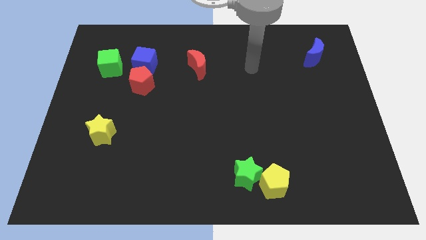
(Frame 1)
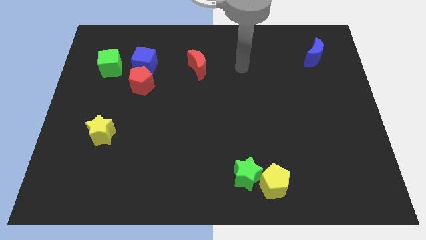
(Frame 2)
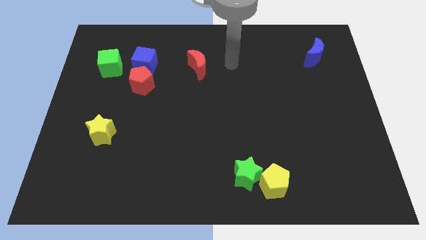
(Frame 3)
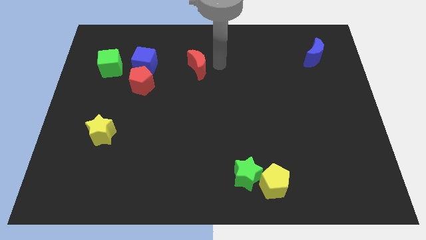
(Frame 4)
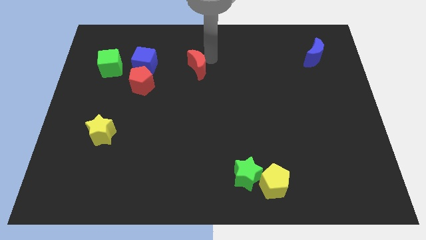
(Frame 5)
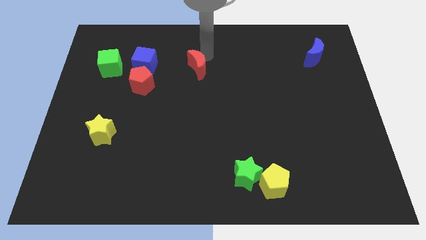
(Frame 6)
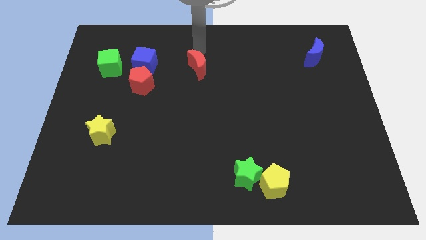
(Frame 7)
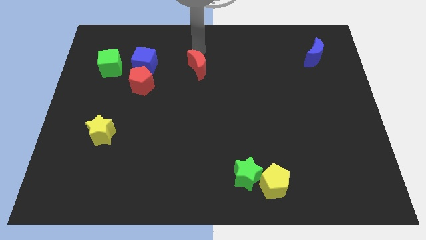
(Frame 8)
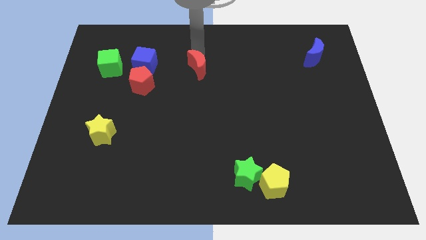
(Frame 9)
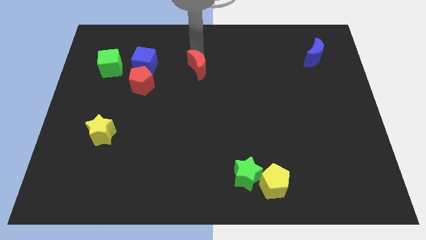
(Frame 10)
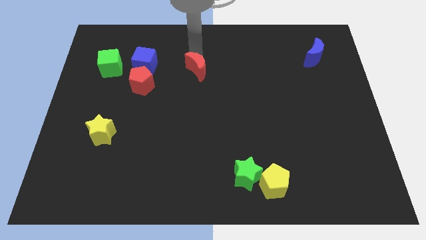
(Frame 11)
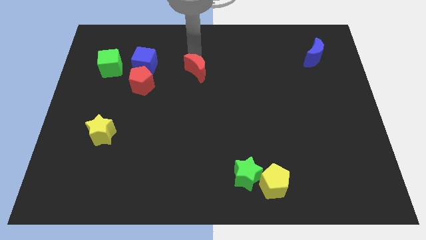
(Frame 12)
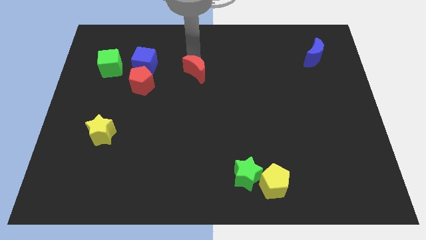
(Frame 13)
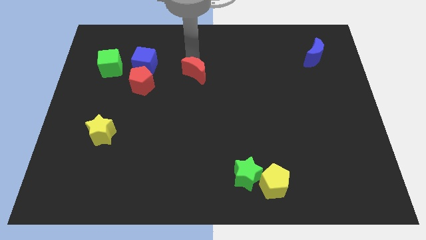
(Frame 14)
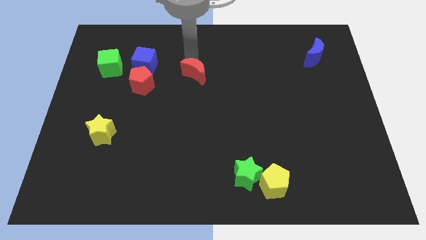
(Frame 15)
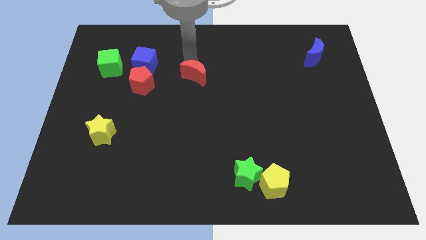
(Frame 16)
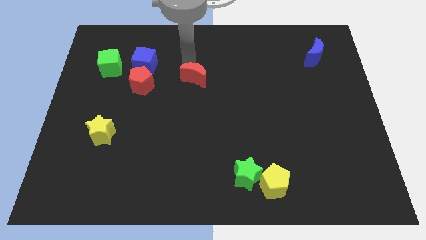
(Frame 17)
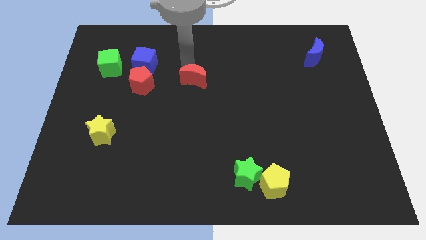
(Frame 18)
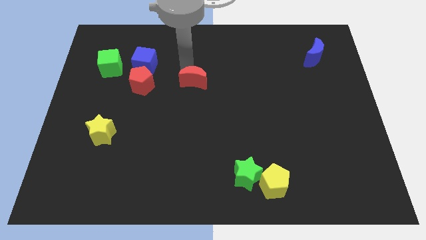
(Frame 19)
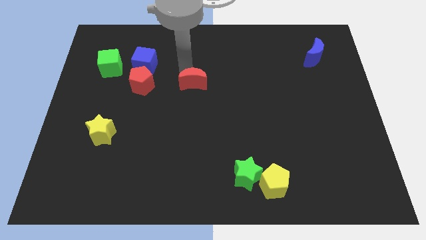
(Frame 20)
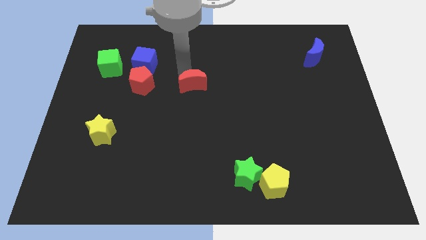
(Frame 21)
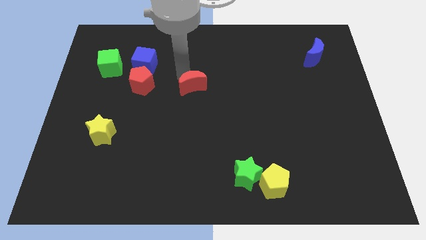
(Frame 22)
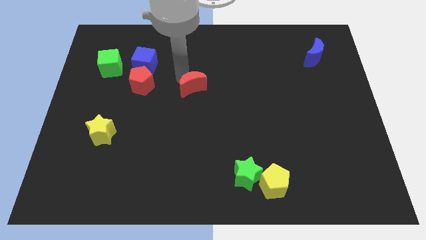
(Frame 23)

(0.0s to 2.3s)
push the red moon a bit downwards

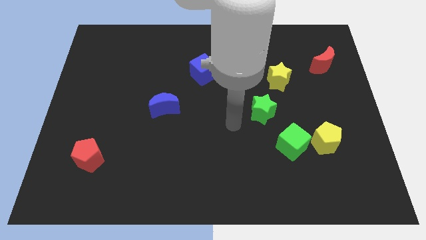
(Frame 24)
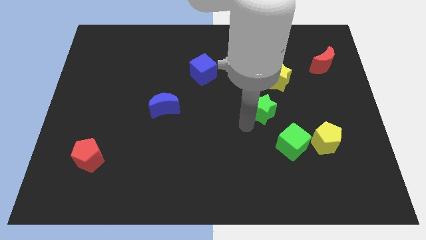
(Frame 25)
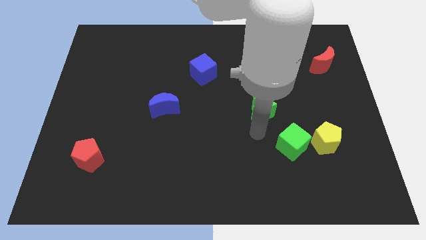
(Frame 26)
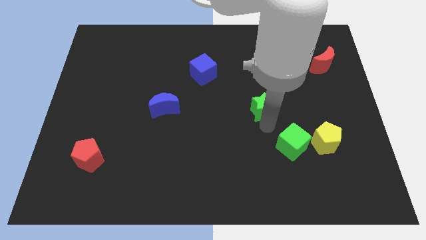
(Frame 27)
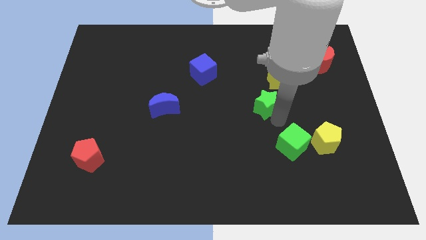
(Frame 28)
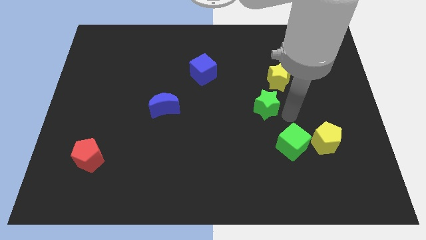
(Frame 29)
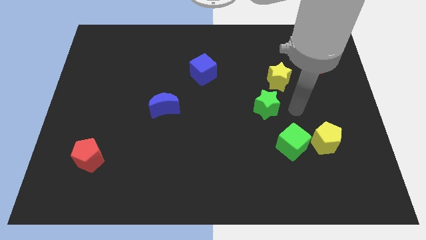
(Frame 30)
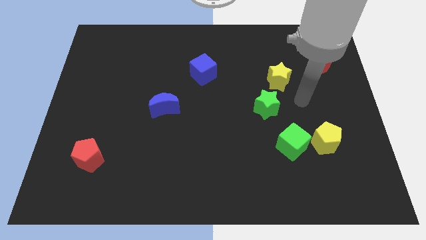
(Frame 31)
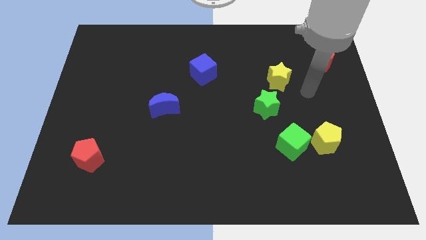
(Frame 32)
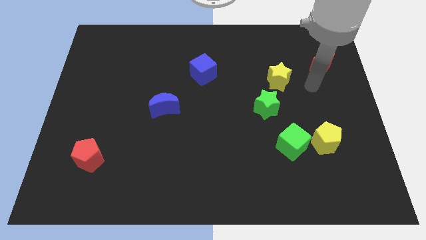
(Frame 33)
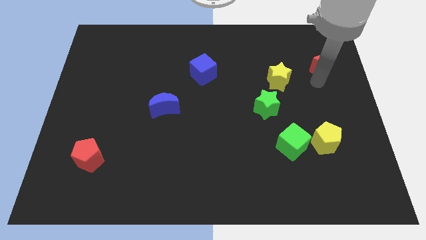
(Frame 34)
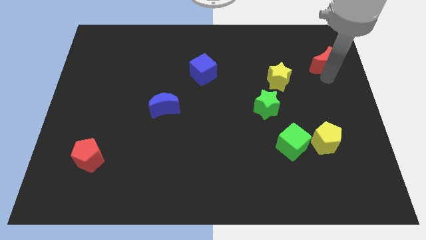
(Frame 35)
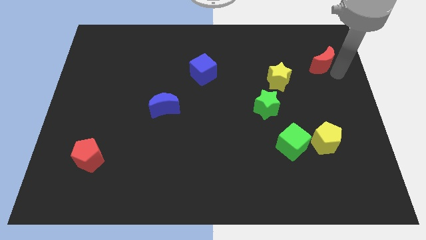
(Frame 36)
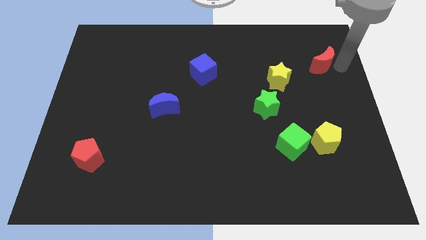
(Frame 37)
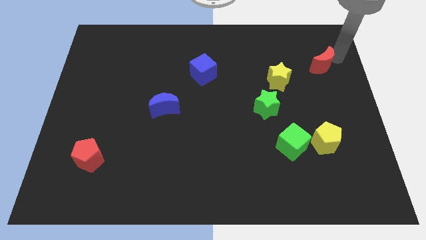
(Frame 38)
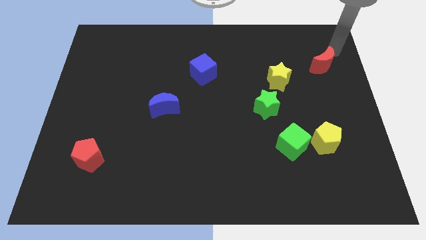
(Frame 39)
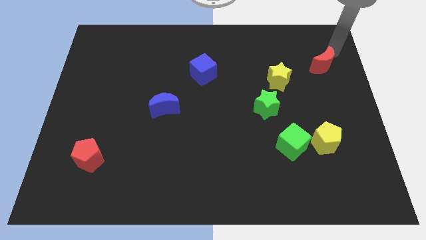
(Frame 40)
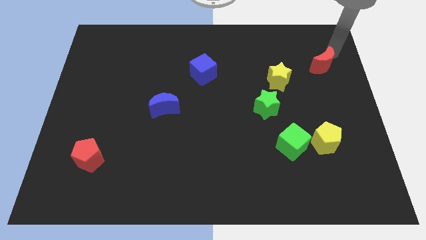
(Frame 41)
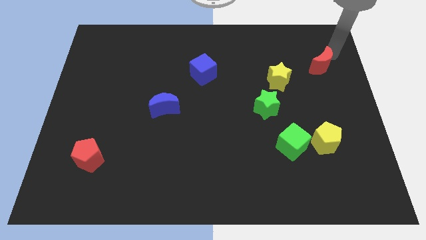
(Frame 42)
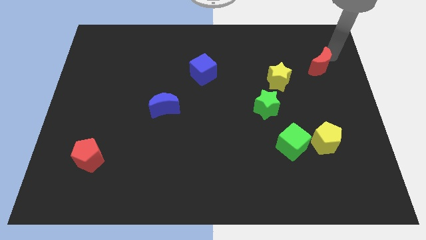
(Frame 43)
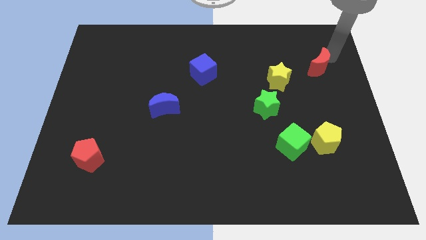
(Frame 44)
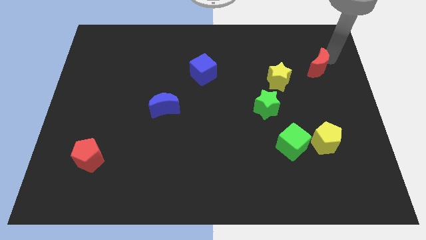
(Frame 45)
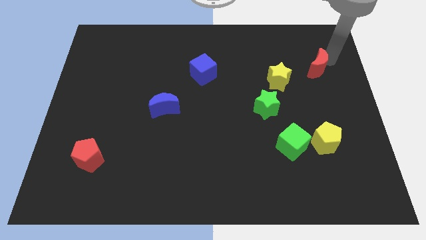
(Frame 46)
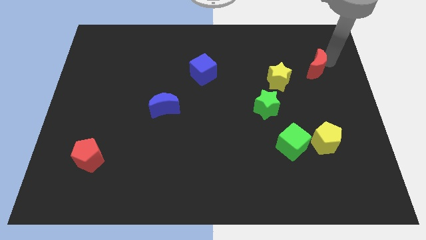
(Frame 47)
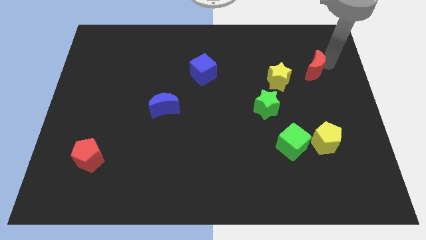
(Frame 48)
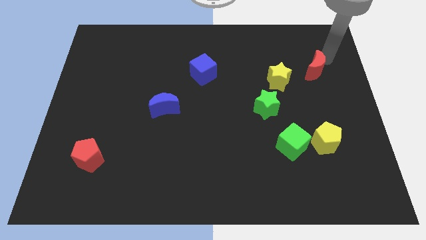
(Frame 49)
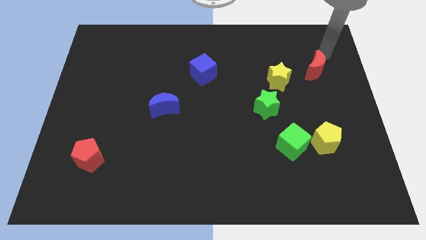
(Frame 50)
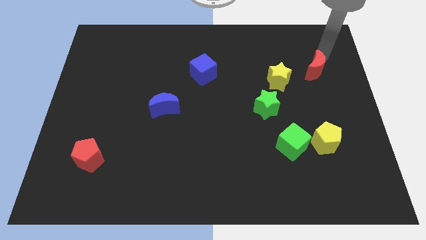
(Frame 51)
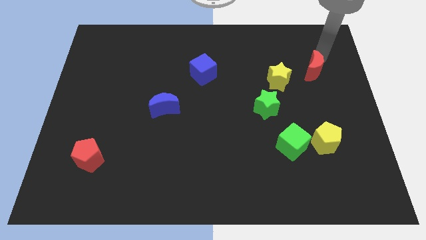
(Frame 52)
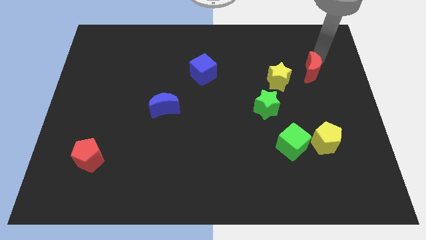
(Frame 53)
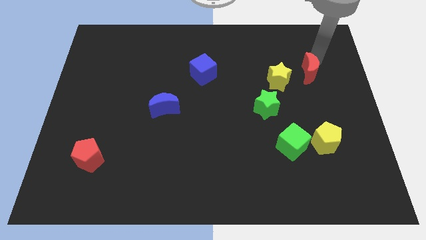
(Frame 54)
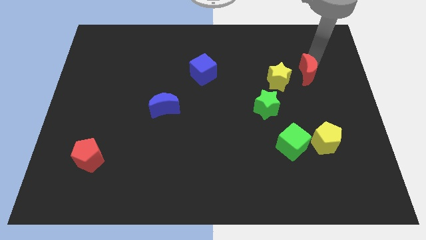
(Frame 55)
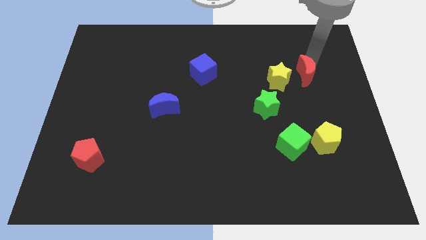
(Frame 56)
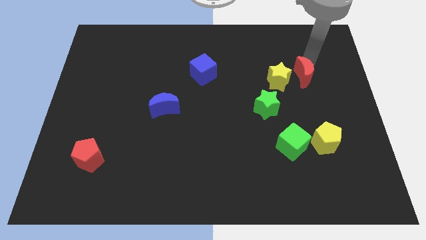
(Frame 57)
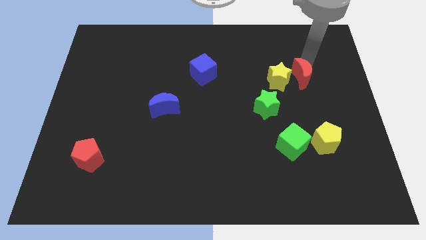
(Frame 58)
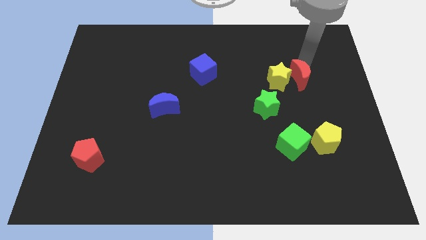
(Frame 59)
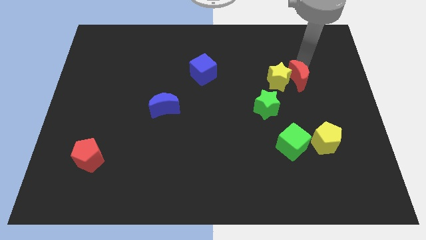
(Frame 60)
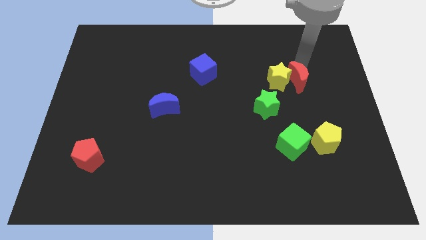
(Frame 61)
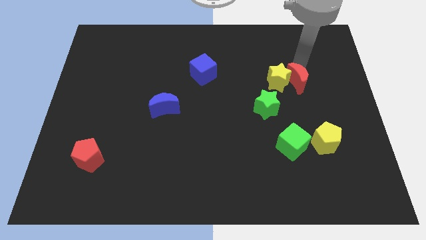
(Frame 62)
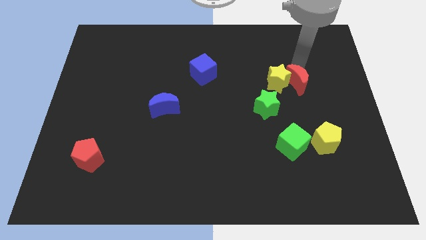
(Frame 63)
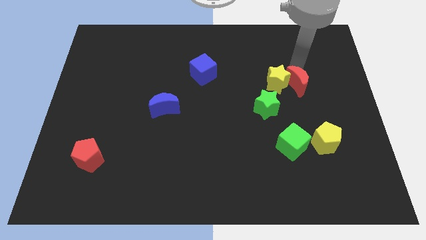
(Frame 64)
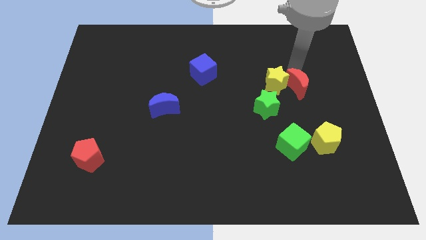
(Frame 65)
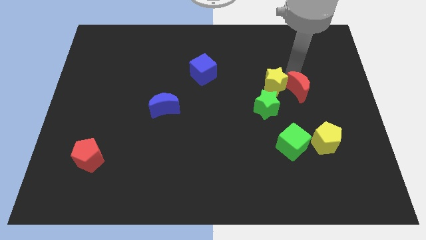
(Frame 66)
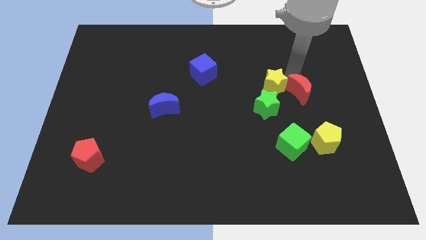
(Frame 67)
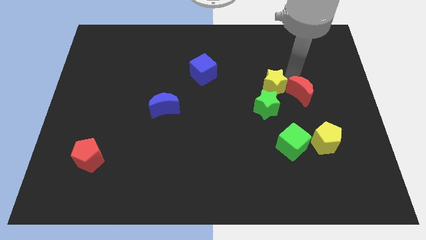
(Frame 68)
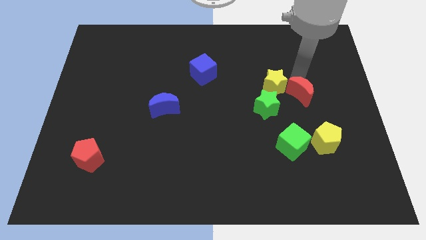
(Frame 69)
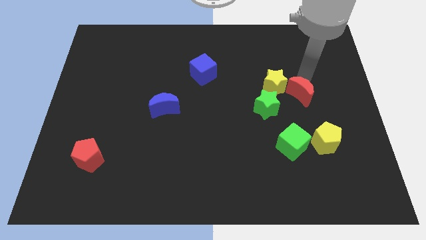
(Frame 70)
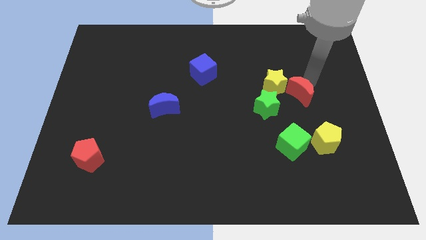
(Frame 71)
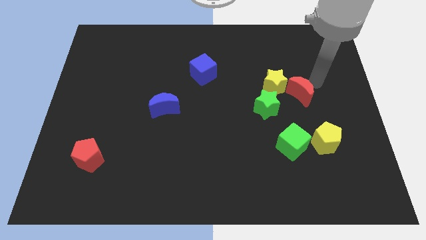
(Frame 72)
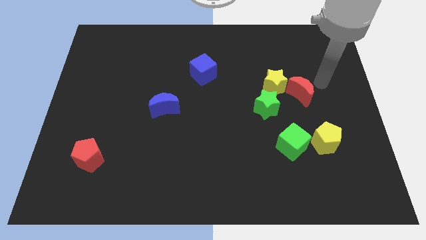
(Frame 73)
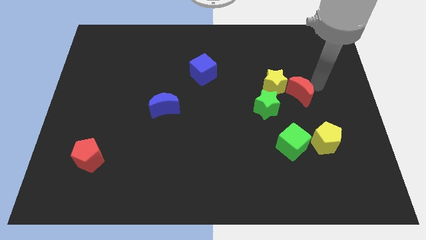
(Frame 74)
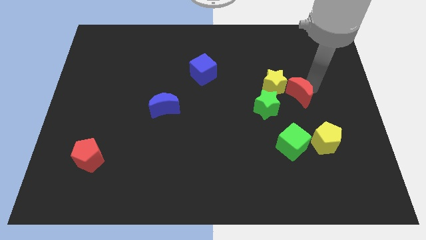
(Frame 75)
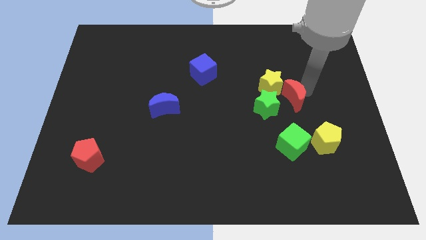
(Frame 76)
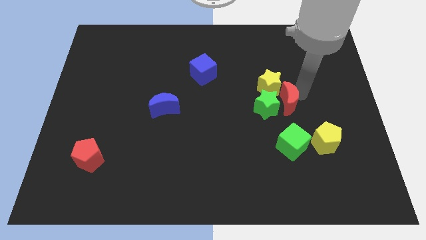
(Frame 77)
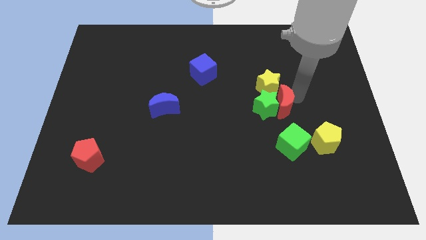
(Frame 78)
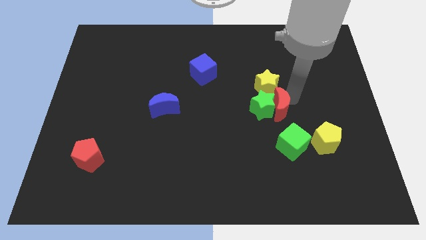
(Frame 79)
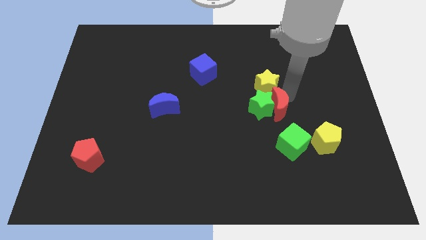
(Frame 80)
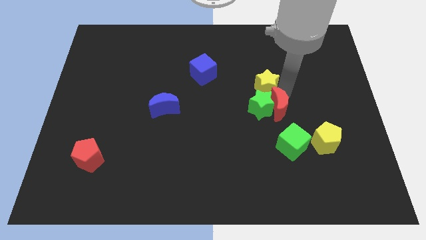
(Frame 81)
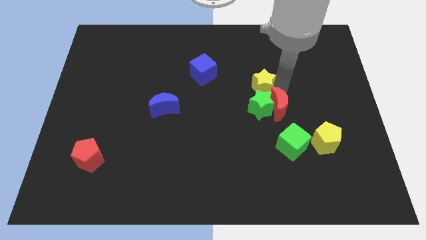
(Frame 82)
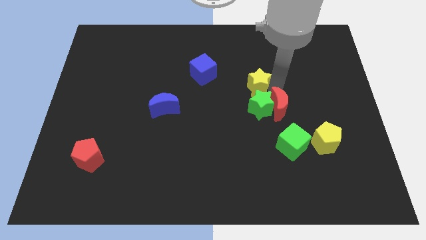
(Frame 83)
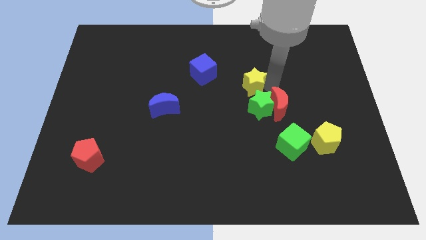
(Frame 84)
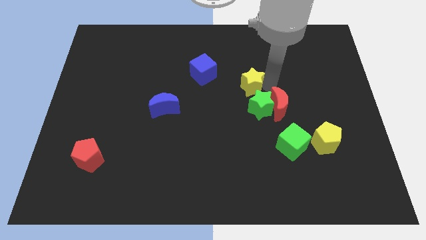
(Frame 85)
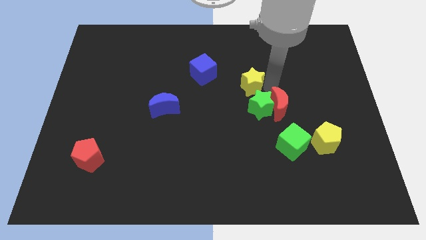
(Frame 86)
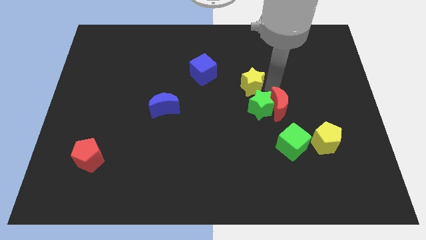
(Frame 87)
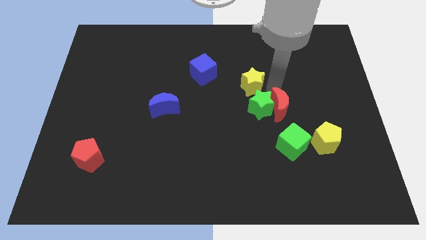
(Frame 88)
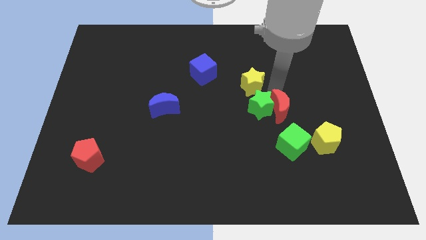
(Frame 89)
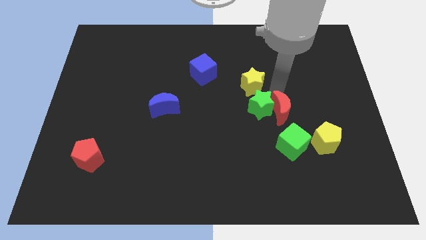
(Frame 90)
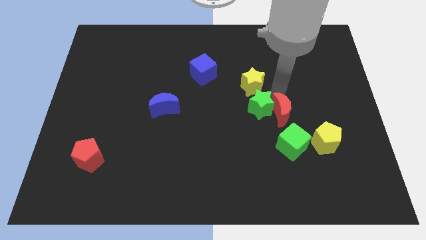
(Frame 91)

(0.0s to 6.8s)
slide the red moon down and then left
